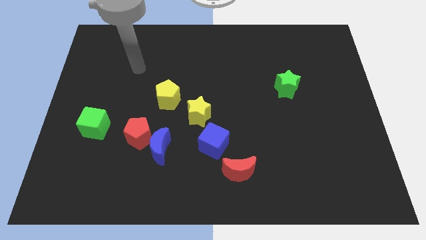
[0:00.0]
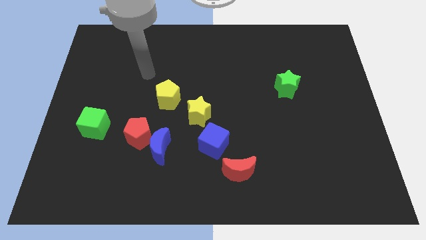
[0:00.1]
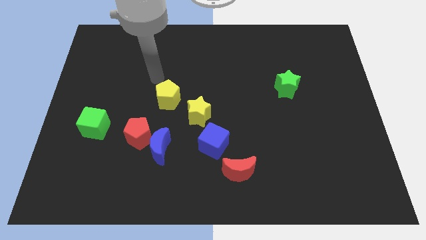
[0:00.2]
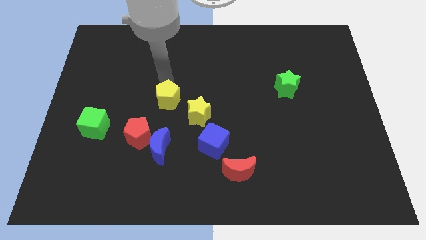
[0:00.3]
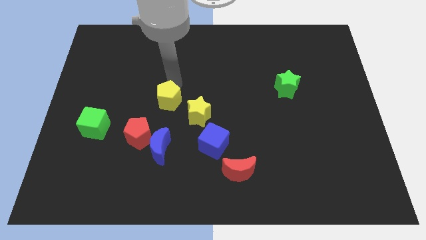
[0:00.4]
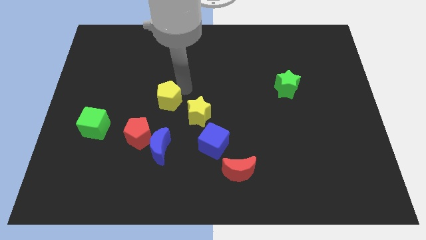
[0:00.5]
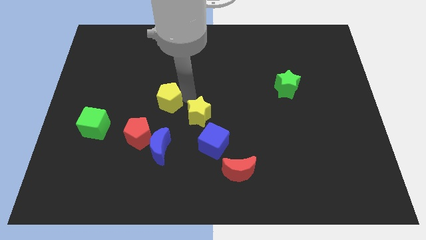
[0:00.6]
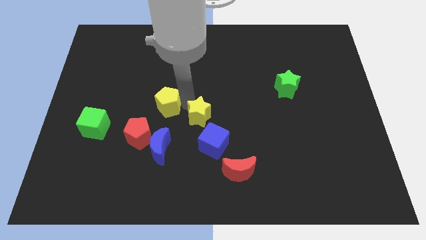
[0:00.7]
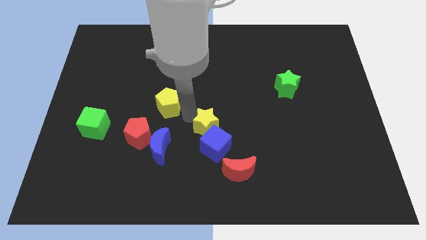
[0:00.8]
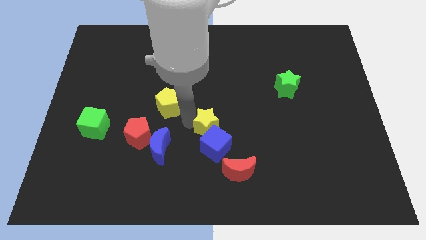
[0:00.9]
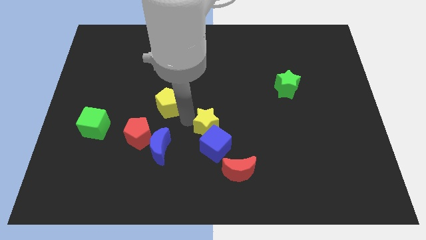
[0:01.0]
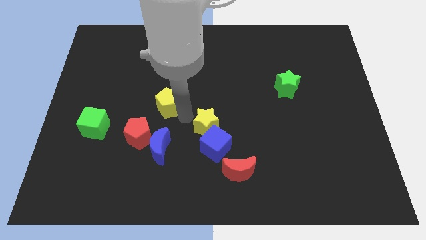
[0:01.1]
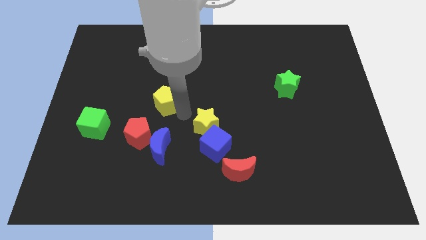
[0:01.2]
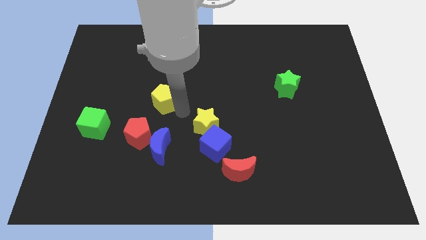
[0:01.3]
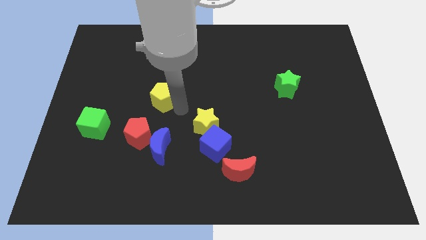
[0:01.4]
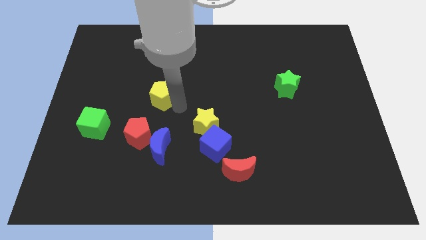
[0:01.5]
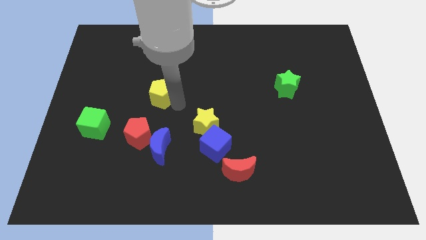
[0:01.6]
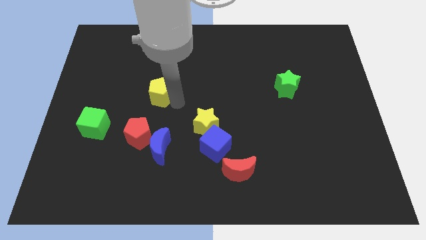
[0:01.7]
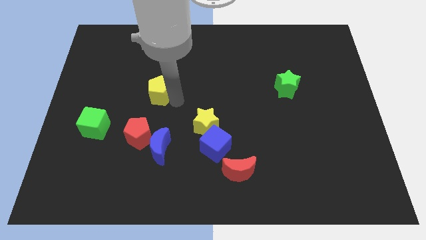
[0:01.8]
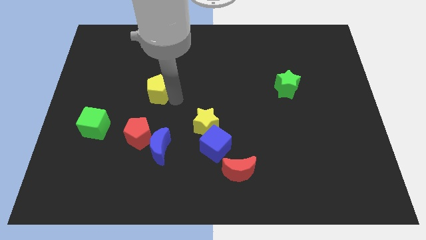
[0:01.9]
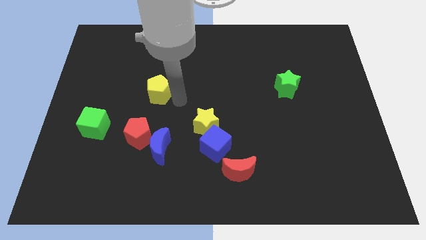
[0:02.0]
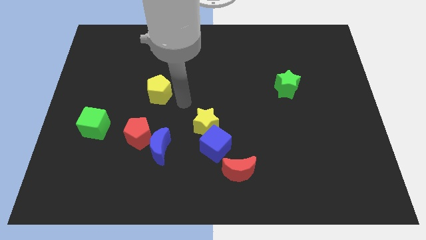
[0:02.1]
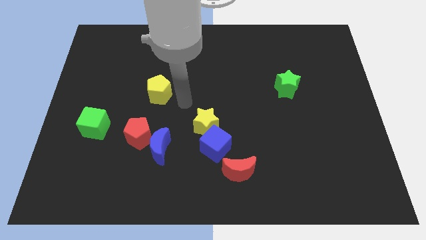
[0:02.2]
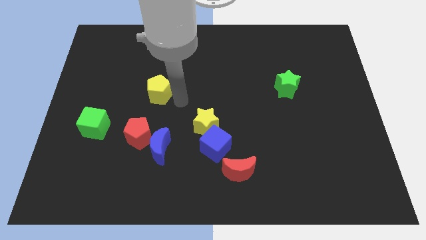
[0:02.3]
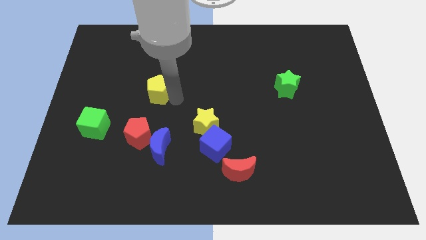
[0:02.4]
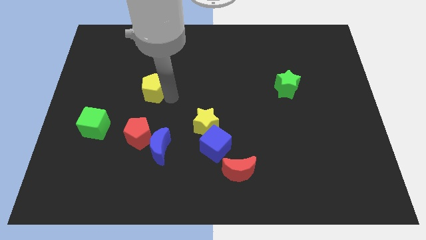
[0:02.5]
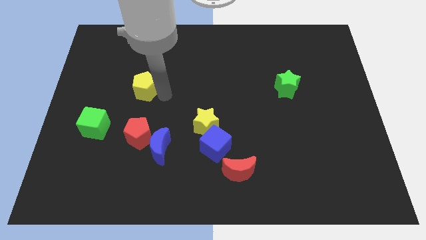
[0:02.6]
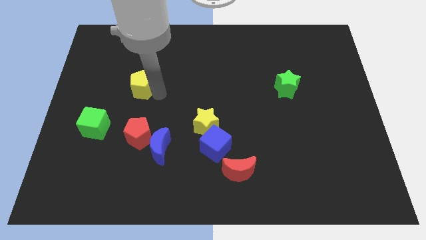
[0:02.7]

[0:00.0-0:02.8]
slide the yellow pentagon a little bit upwards and then left

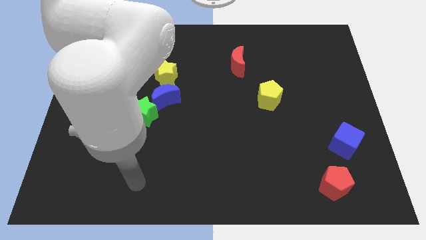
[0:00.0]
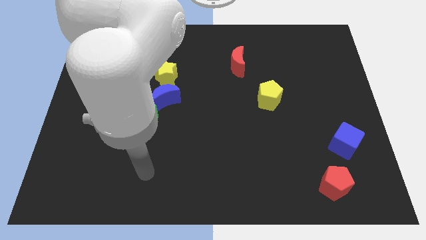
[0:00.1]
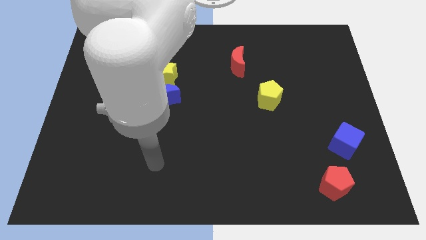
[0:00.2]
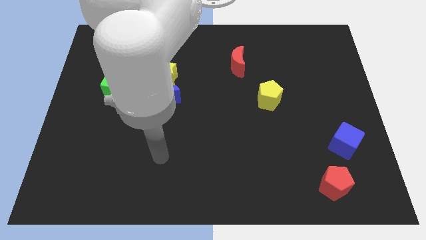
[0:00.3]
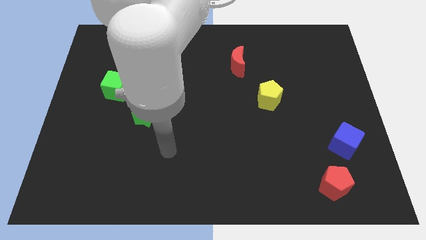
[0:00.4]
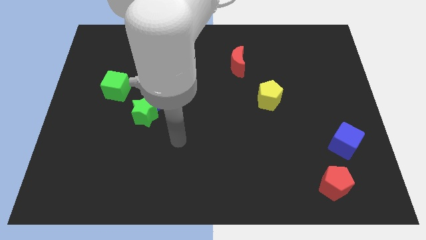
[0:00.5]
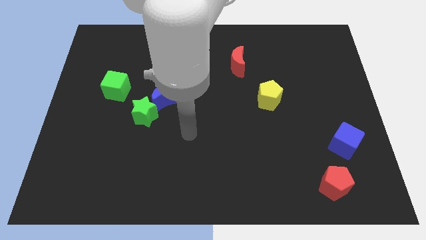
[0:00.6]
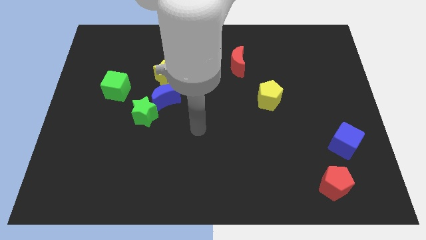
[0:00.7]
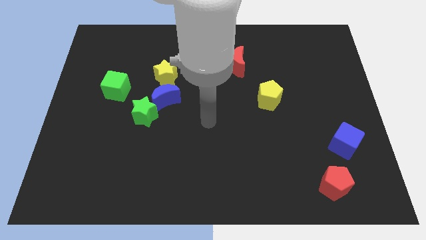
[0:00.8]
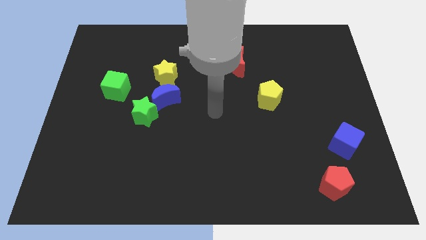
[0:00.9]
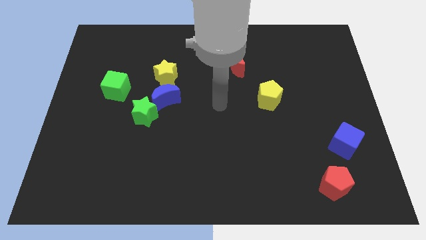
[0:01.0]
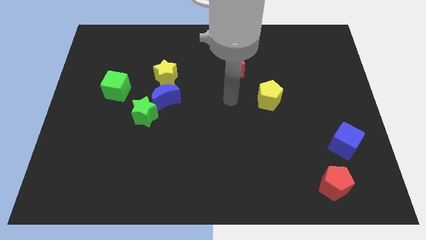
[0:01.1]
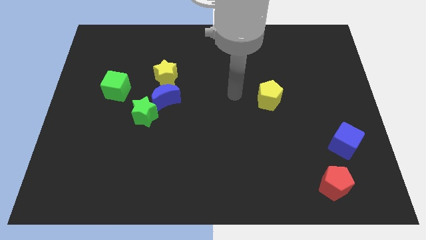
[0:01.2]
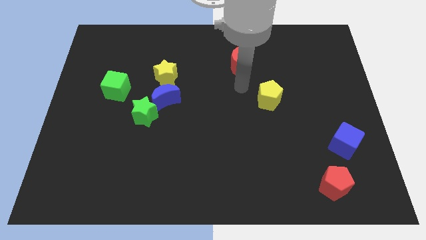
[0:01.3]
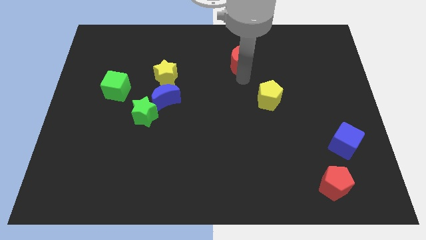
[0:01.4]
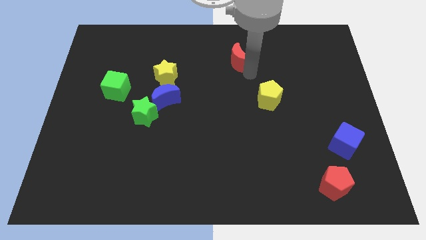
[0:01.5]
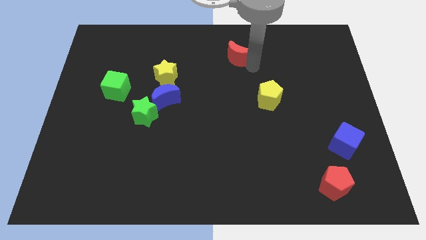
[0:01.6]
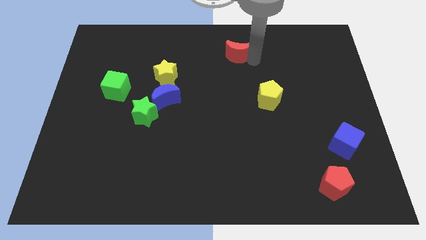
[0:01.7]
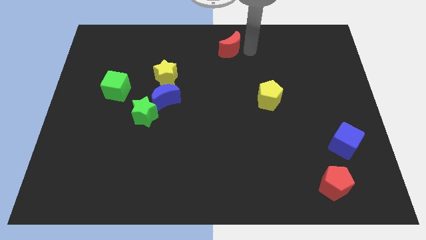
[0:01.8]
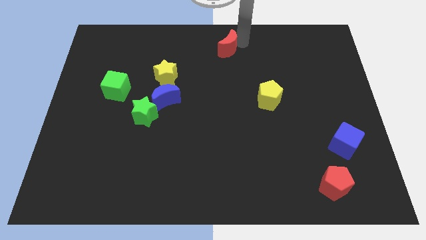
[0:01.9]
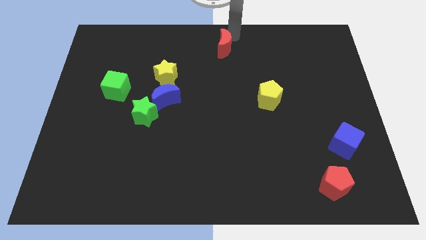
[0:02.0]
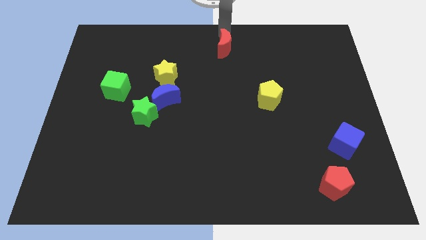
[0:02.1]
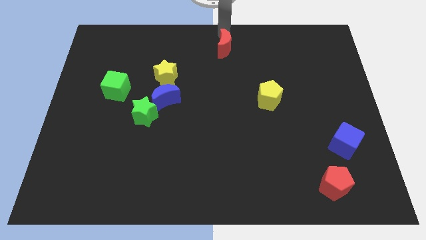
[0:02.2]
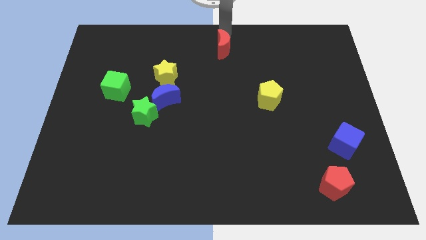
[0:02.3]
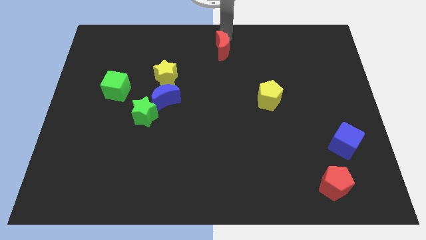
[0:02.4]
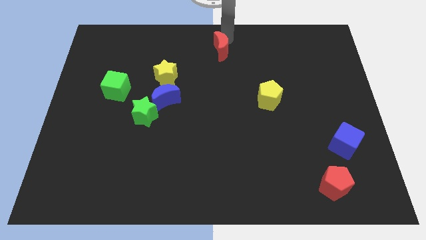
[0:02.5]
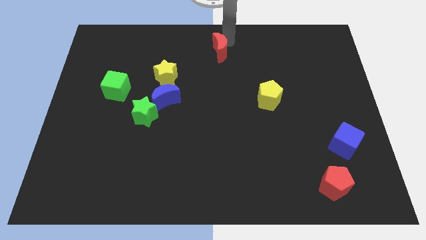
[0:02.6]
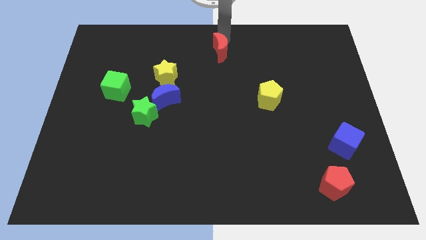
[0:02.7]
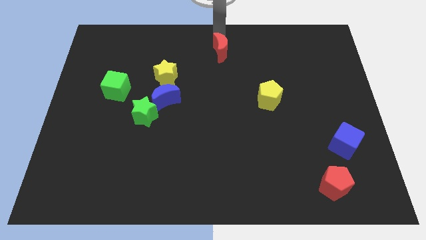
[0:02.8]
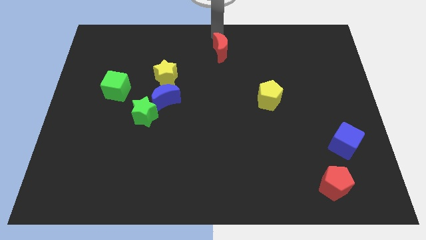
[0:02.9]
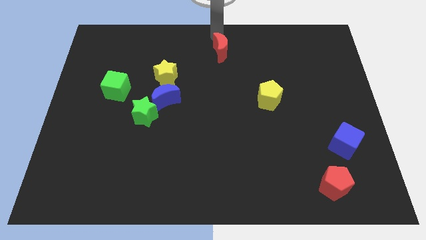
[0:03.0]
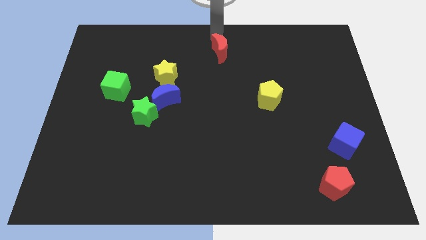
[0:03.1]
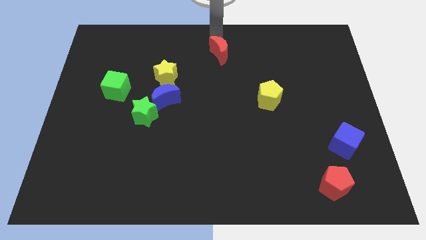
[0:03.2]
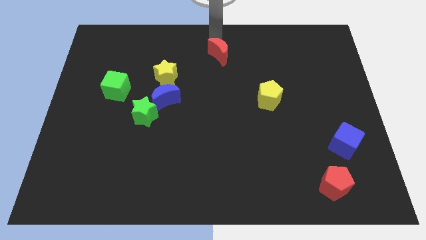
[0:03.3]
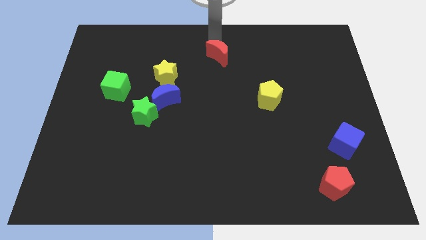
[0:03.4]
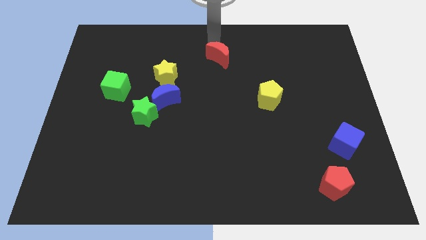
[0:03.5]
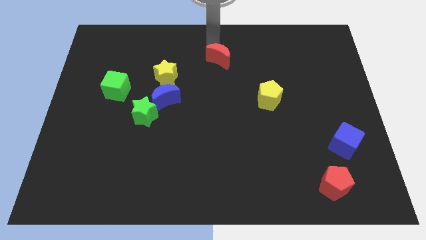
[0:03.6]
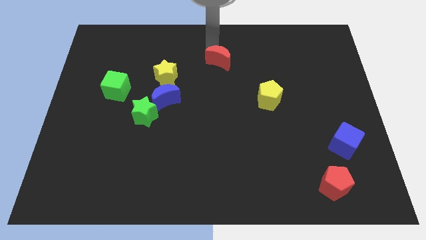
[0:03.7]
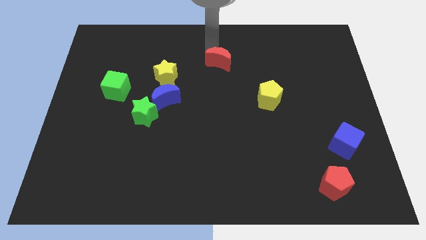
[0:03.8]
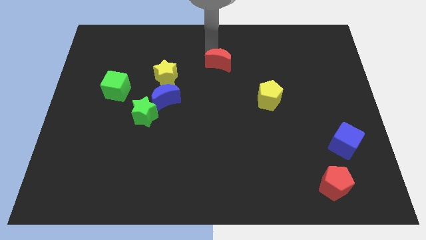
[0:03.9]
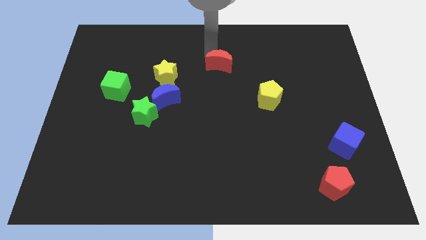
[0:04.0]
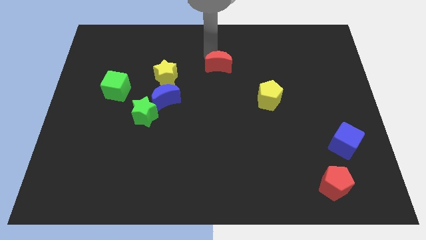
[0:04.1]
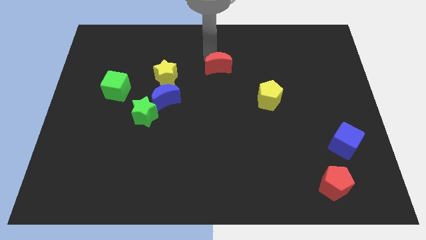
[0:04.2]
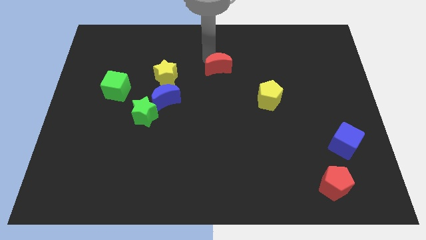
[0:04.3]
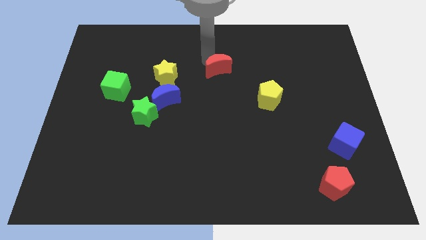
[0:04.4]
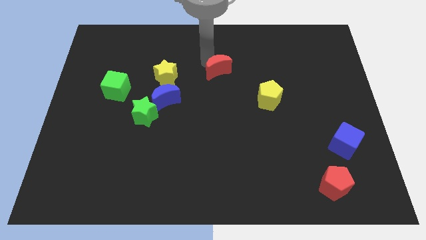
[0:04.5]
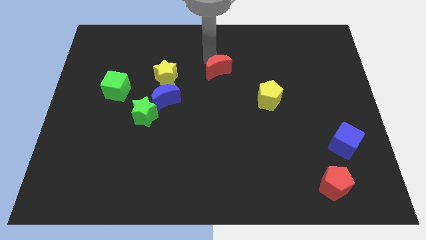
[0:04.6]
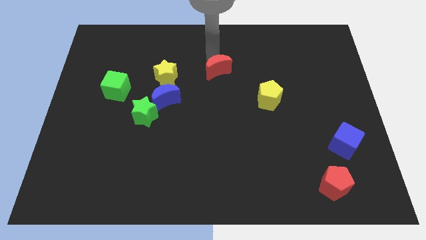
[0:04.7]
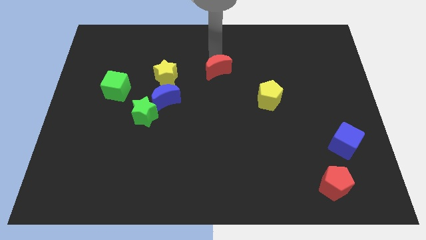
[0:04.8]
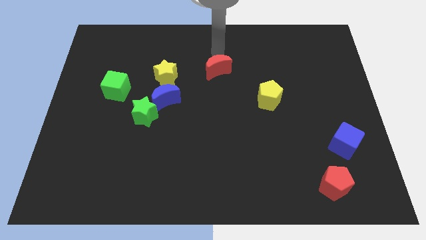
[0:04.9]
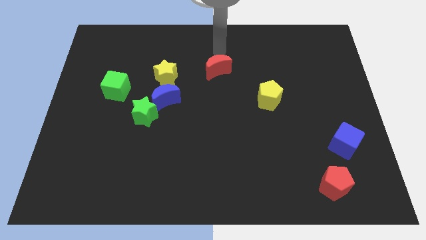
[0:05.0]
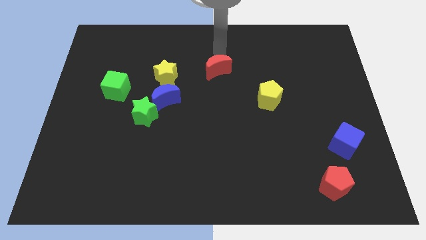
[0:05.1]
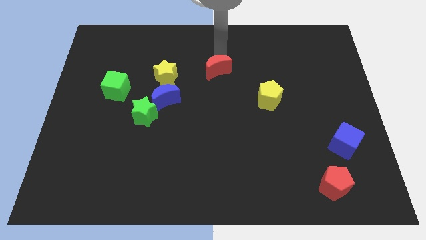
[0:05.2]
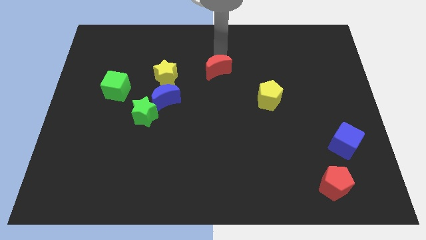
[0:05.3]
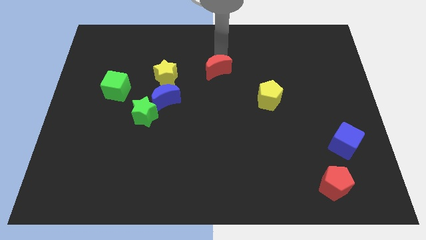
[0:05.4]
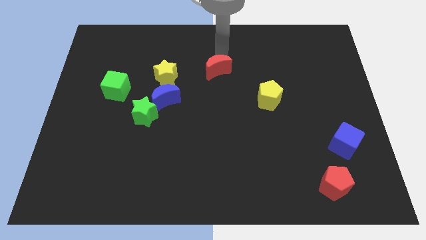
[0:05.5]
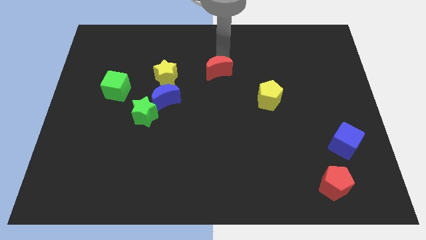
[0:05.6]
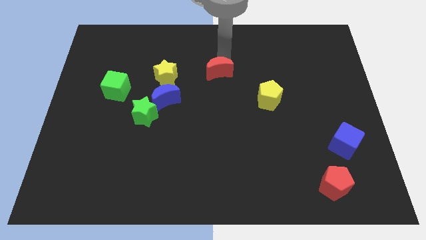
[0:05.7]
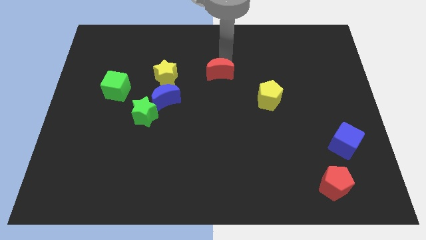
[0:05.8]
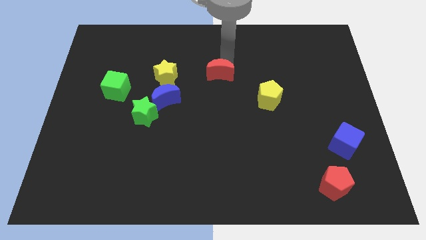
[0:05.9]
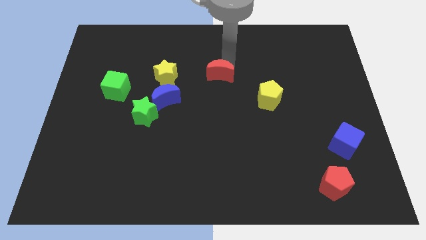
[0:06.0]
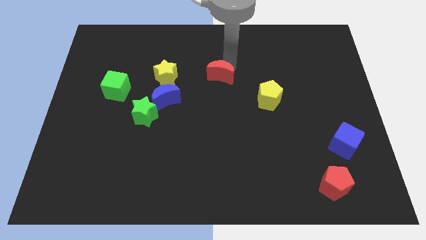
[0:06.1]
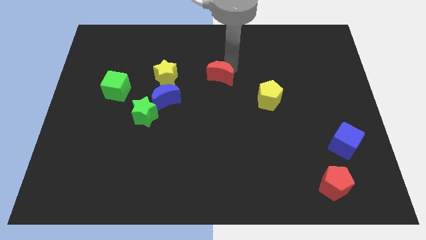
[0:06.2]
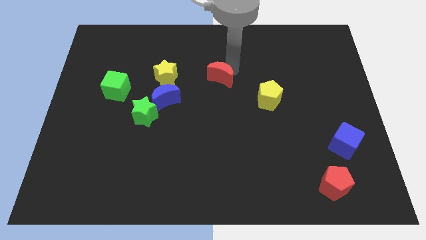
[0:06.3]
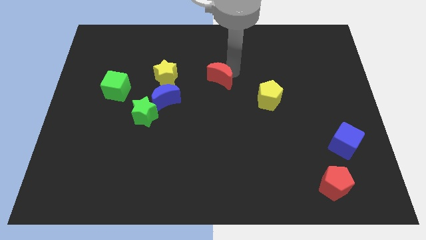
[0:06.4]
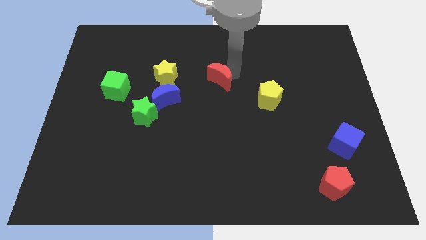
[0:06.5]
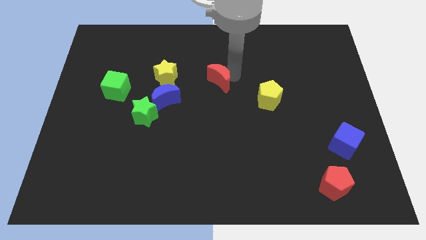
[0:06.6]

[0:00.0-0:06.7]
move the red moon down and to the left diagonally slightly
